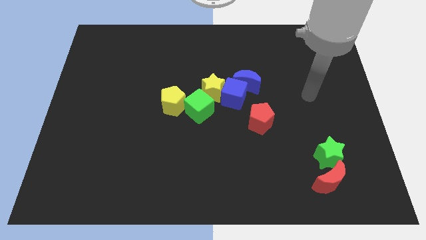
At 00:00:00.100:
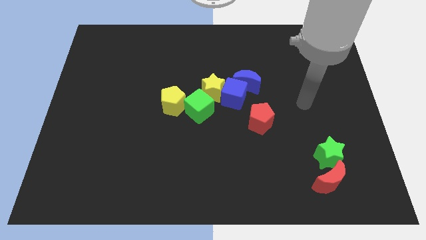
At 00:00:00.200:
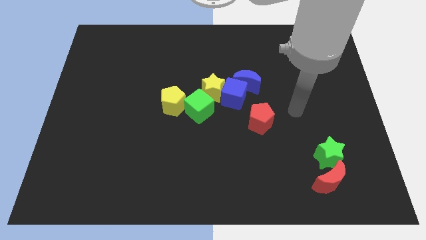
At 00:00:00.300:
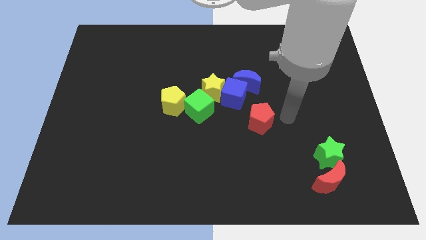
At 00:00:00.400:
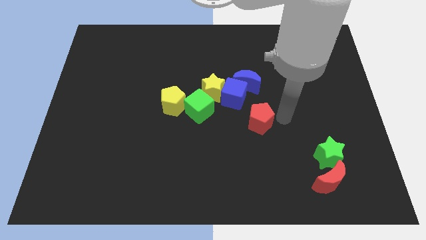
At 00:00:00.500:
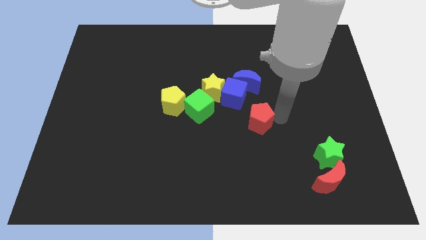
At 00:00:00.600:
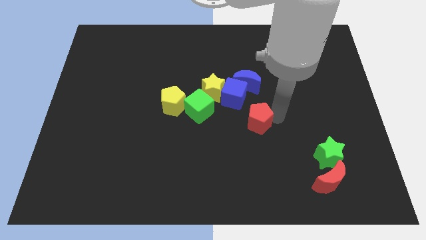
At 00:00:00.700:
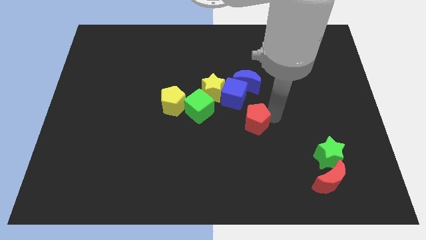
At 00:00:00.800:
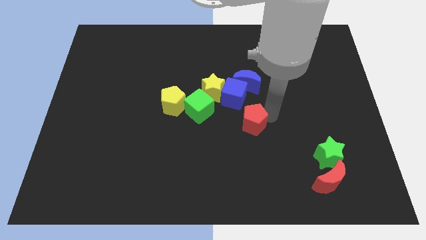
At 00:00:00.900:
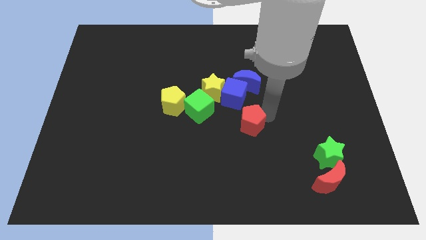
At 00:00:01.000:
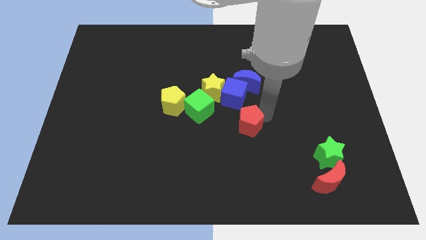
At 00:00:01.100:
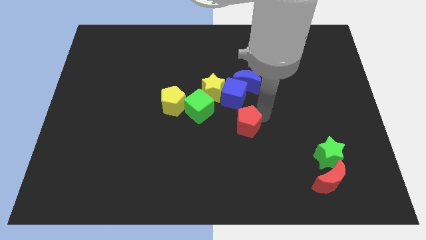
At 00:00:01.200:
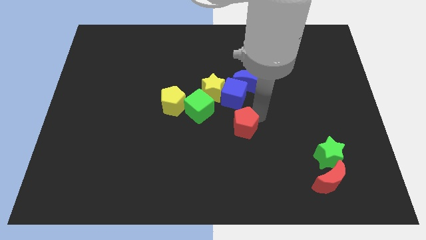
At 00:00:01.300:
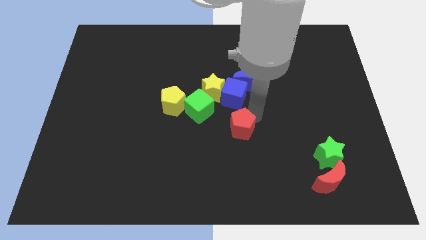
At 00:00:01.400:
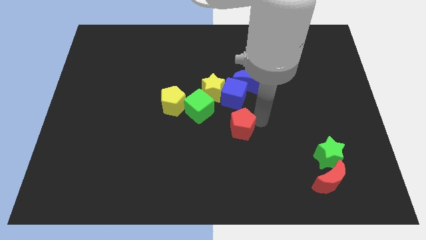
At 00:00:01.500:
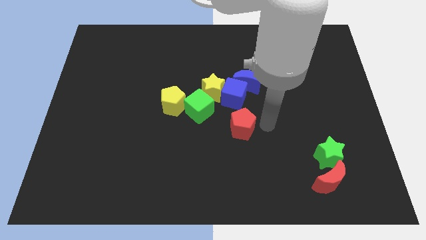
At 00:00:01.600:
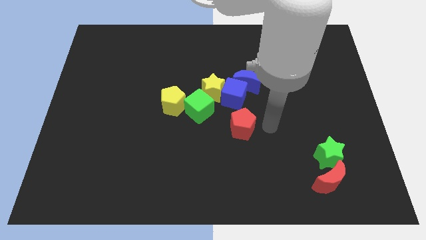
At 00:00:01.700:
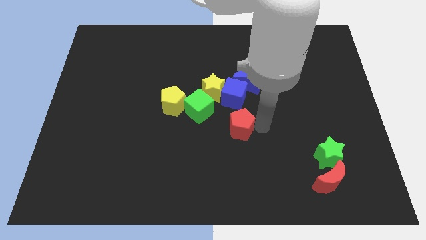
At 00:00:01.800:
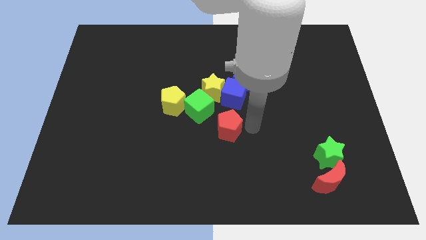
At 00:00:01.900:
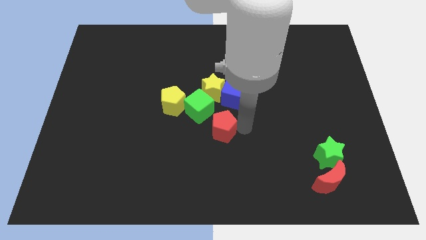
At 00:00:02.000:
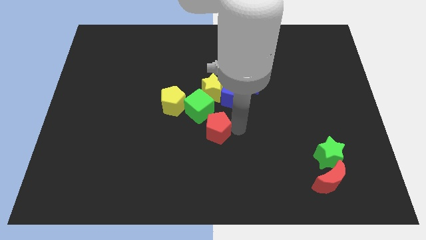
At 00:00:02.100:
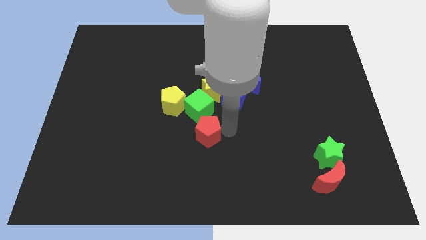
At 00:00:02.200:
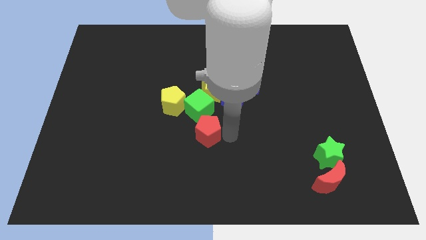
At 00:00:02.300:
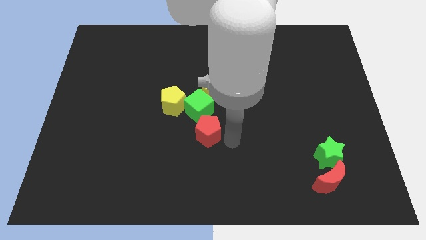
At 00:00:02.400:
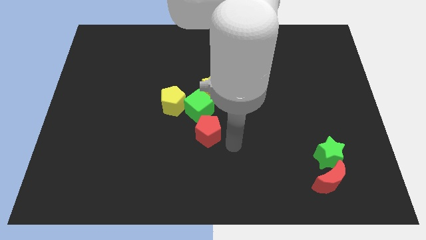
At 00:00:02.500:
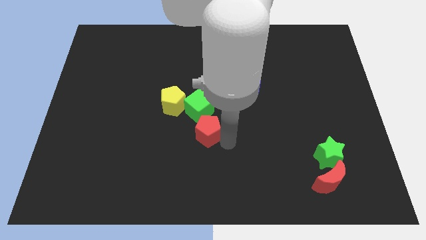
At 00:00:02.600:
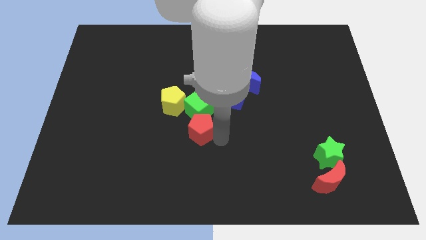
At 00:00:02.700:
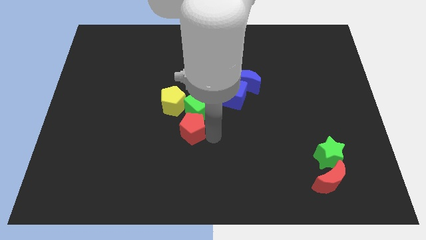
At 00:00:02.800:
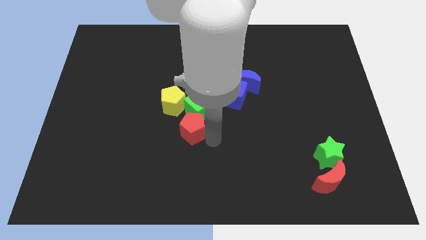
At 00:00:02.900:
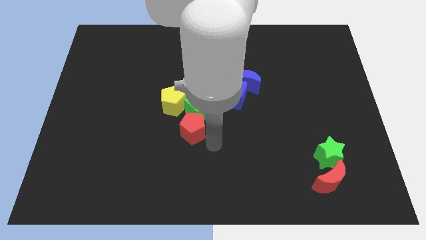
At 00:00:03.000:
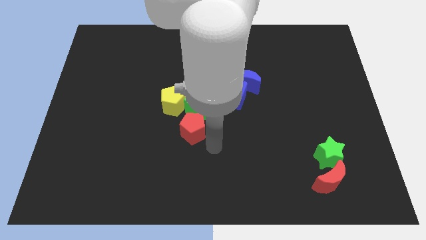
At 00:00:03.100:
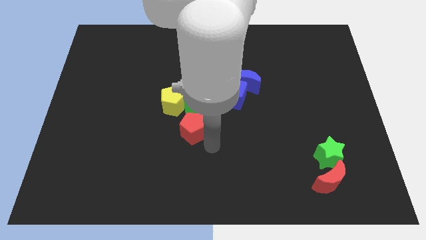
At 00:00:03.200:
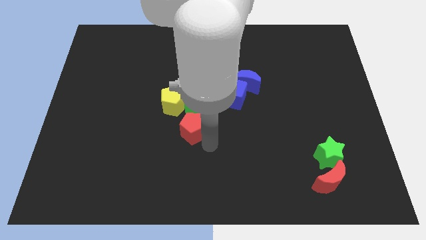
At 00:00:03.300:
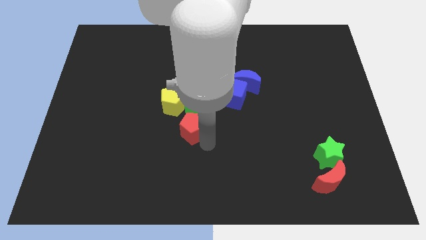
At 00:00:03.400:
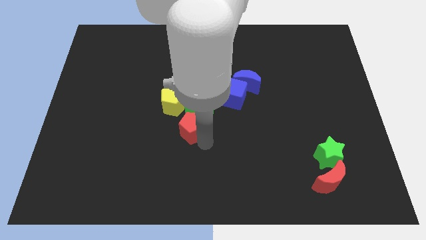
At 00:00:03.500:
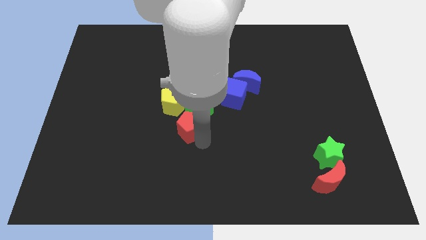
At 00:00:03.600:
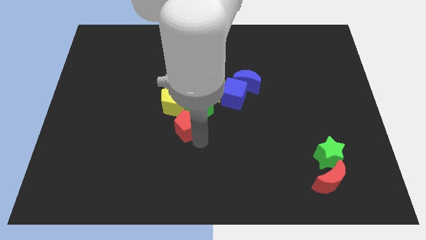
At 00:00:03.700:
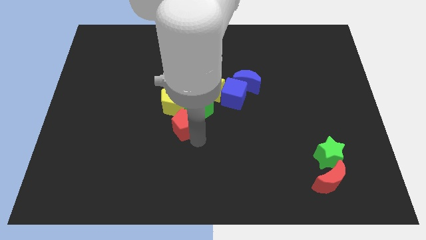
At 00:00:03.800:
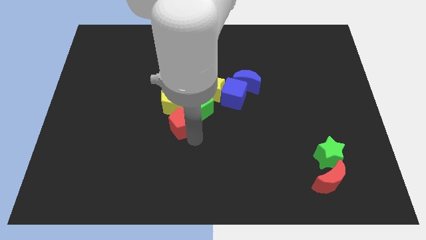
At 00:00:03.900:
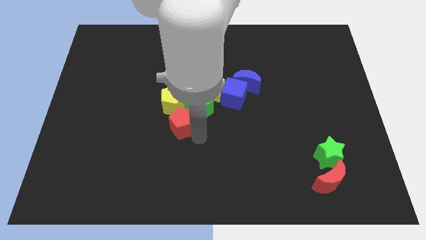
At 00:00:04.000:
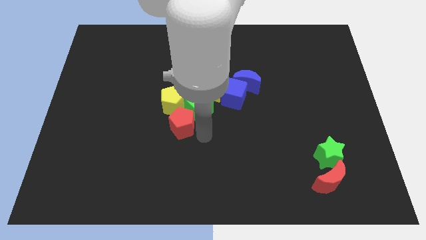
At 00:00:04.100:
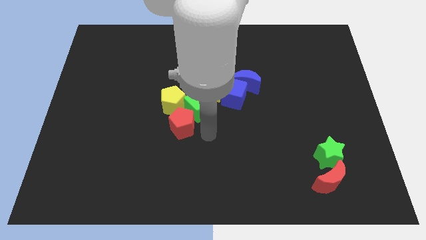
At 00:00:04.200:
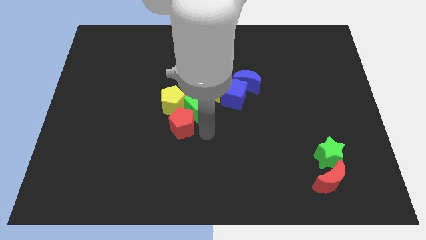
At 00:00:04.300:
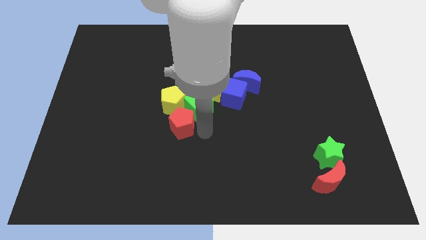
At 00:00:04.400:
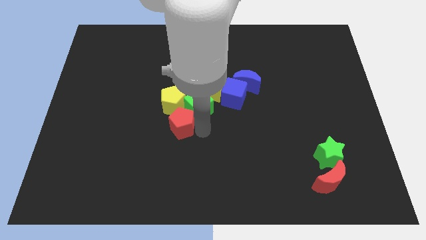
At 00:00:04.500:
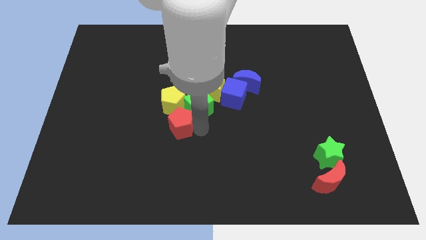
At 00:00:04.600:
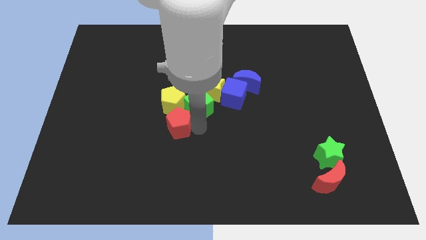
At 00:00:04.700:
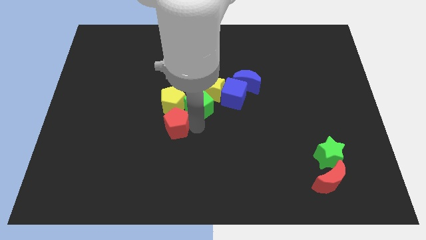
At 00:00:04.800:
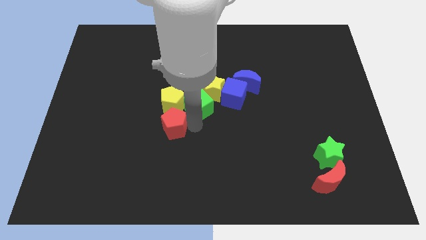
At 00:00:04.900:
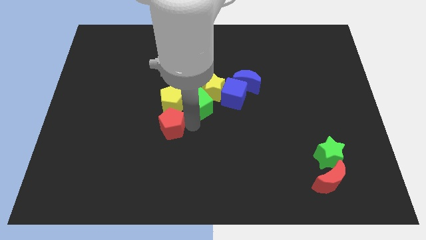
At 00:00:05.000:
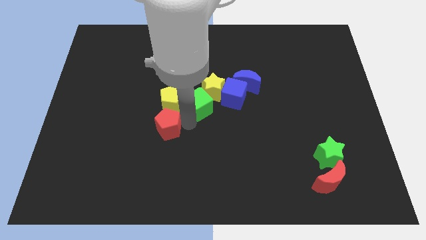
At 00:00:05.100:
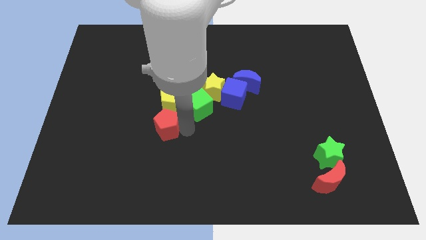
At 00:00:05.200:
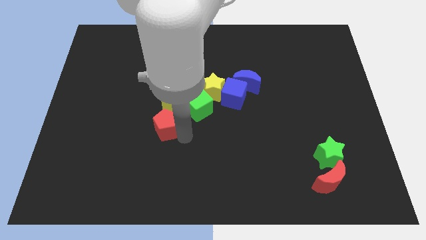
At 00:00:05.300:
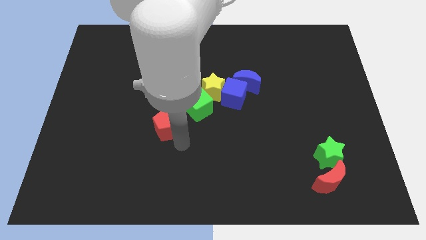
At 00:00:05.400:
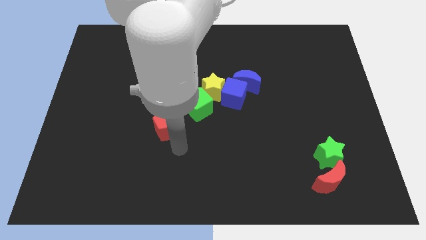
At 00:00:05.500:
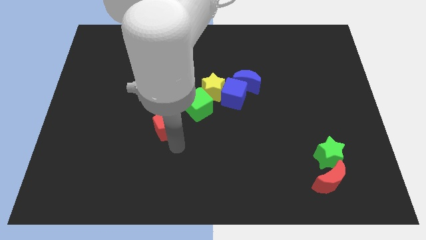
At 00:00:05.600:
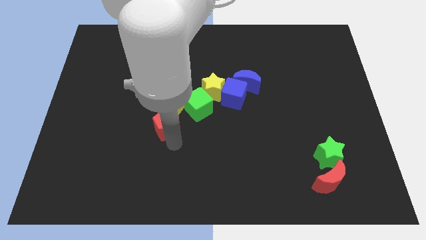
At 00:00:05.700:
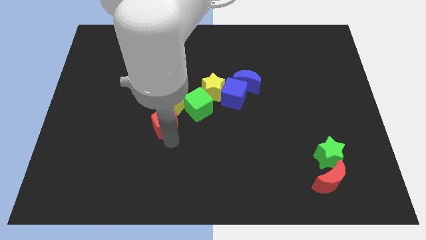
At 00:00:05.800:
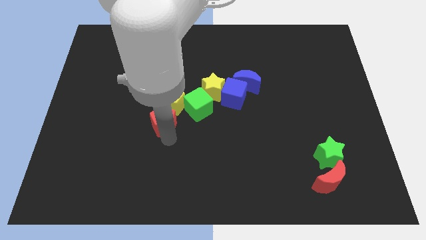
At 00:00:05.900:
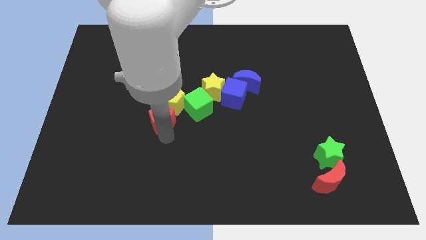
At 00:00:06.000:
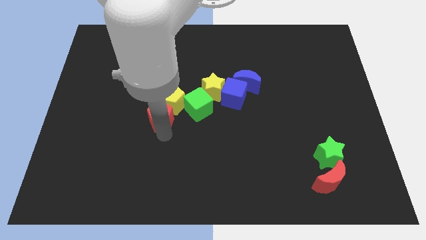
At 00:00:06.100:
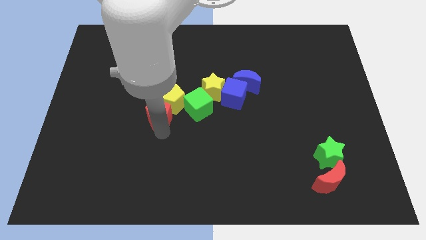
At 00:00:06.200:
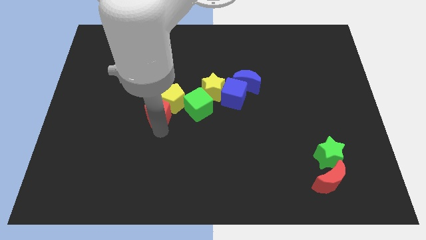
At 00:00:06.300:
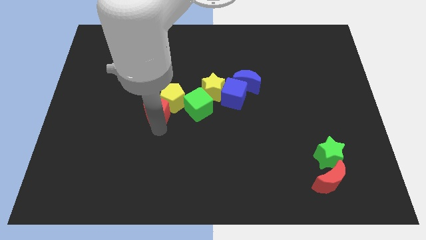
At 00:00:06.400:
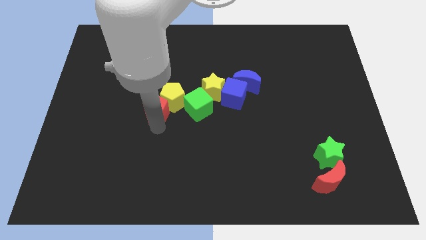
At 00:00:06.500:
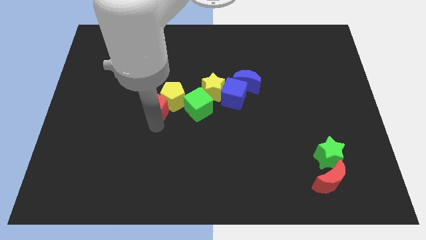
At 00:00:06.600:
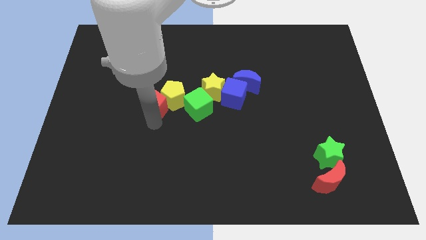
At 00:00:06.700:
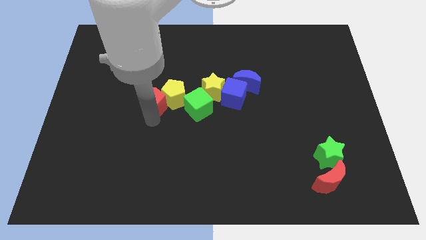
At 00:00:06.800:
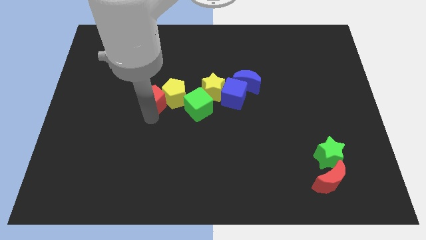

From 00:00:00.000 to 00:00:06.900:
slide the red pentagon diagonally up and to the left of the yellow pentagon

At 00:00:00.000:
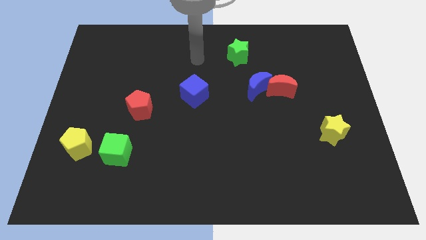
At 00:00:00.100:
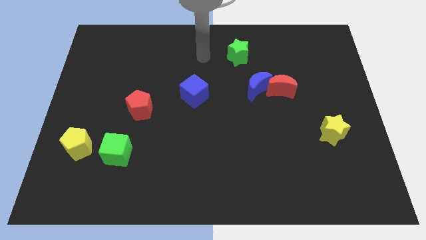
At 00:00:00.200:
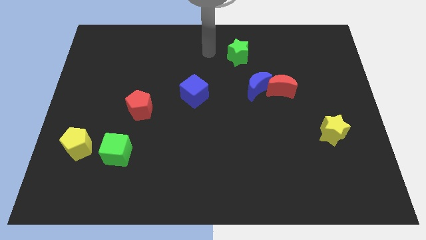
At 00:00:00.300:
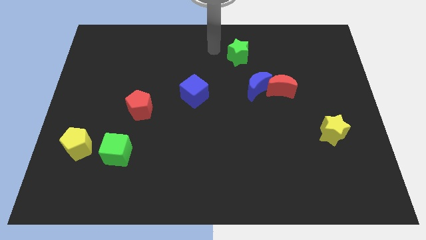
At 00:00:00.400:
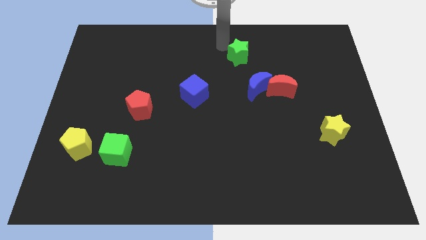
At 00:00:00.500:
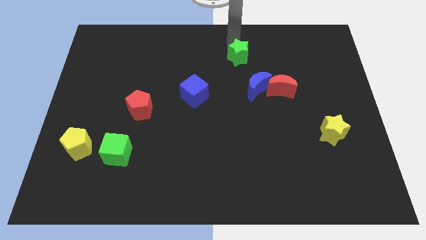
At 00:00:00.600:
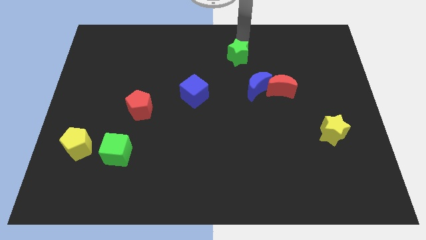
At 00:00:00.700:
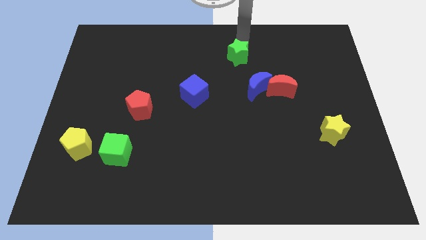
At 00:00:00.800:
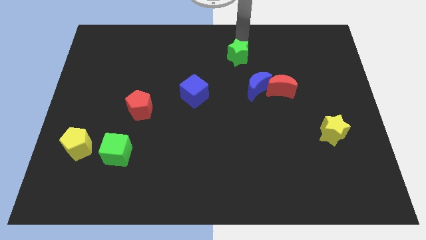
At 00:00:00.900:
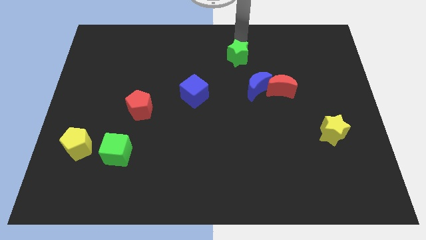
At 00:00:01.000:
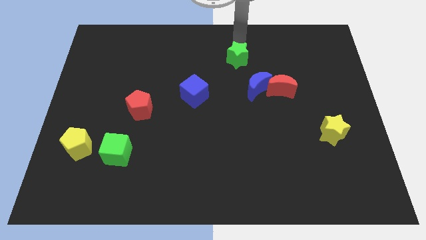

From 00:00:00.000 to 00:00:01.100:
move the green star to the top left side of the blue moon
